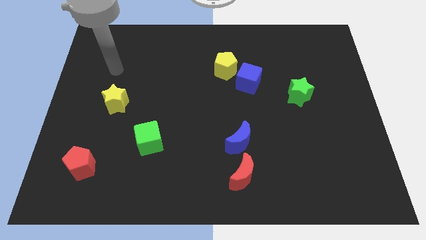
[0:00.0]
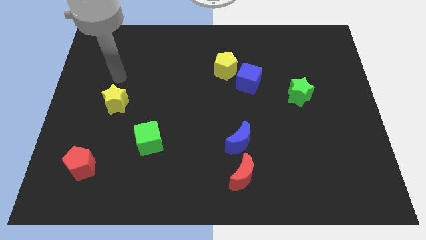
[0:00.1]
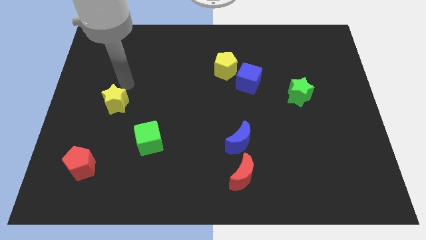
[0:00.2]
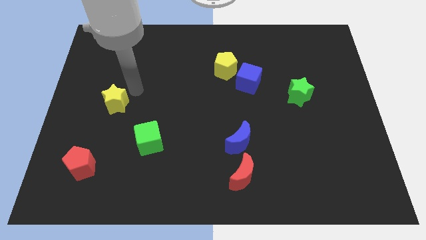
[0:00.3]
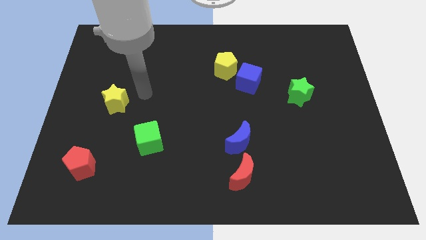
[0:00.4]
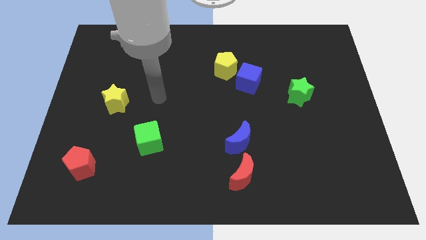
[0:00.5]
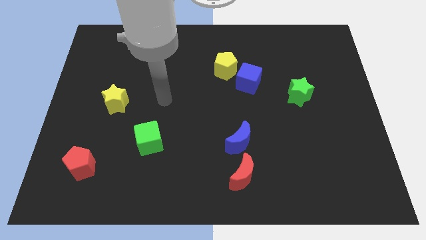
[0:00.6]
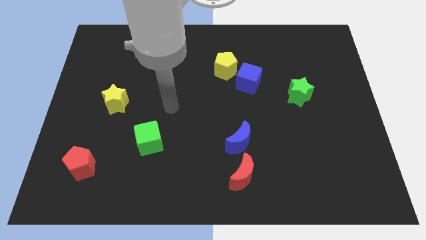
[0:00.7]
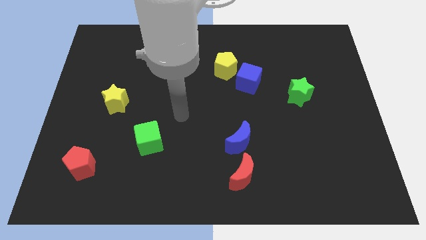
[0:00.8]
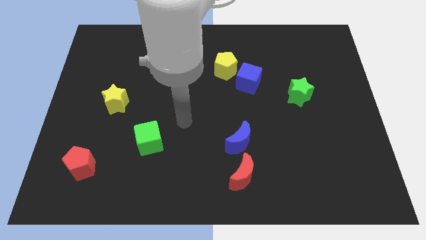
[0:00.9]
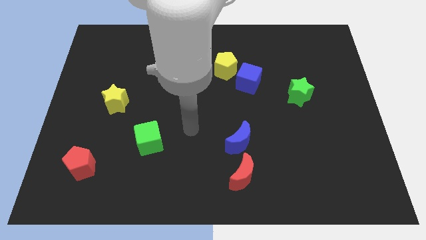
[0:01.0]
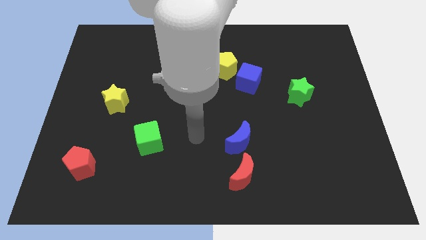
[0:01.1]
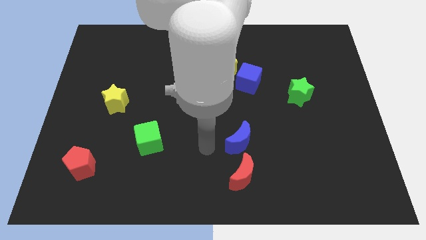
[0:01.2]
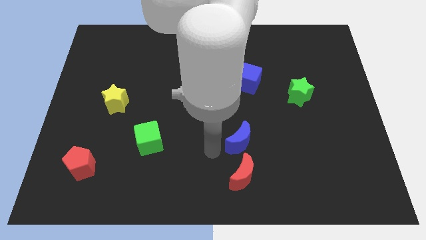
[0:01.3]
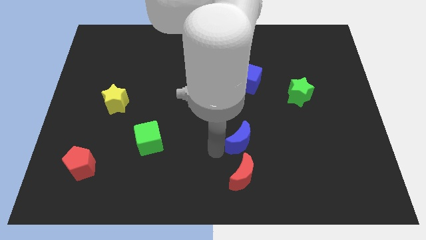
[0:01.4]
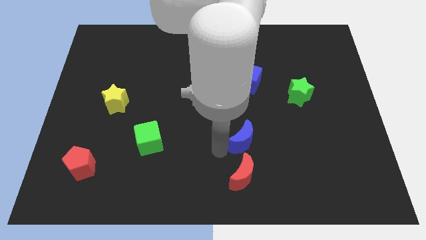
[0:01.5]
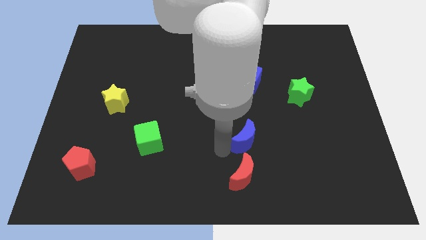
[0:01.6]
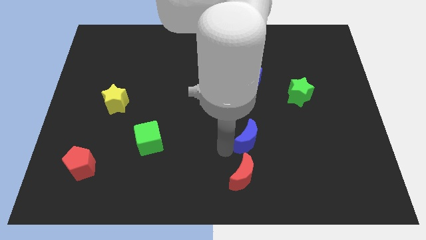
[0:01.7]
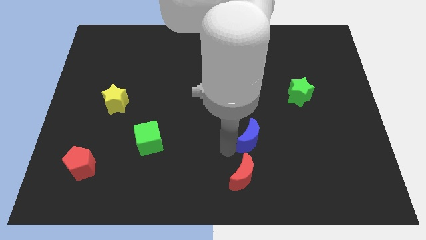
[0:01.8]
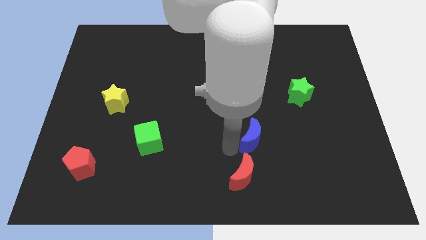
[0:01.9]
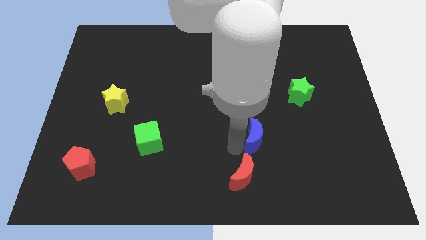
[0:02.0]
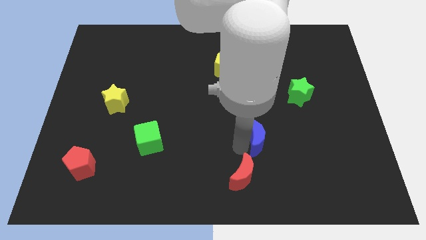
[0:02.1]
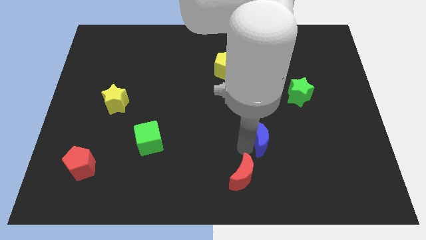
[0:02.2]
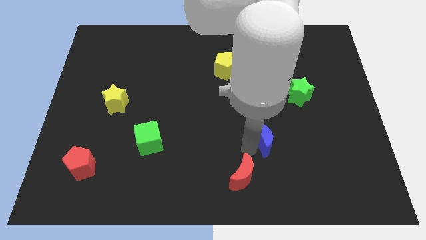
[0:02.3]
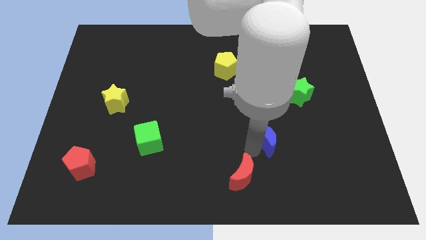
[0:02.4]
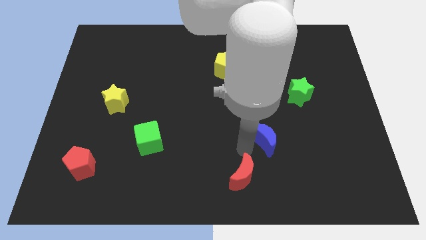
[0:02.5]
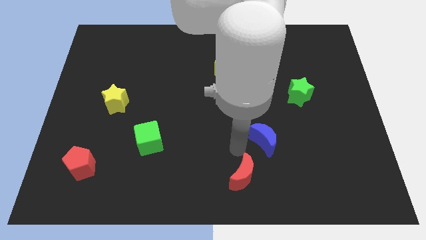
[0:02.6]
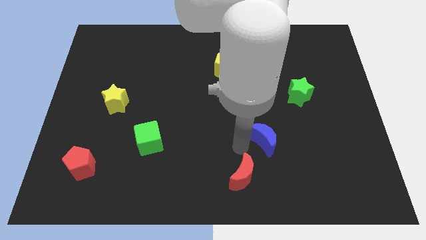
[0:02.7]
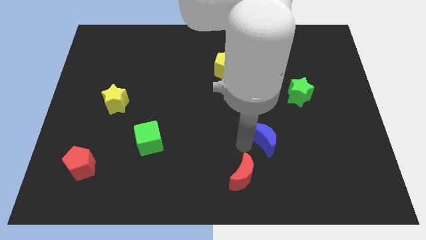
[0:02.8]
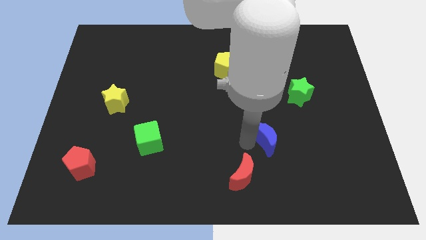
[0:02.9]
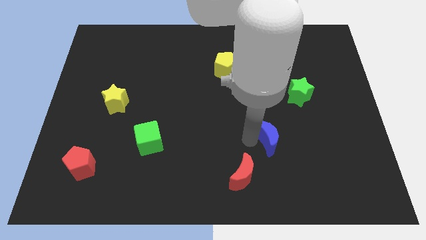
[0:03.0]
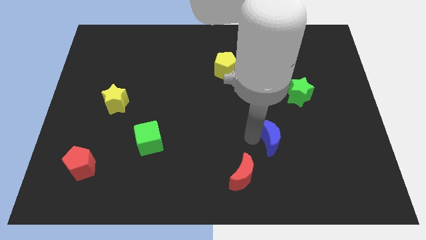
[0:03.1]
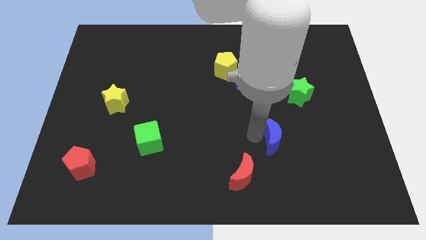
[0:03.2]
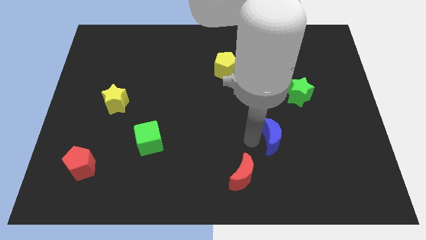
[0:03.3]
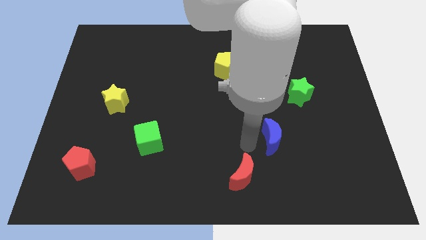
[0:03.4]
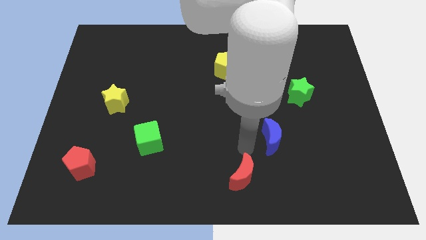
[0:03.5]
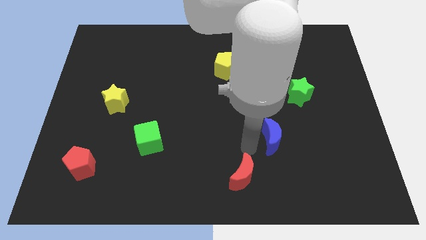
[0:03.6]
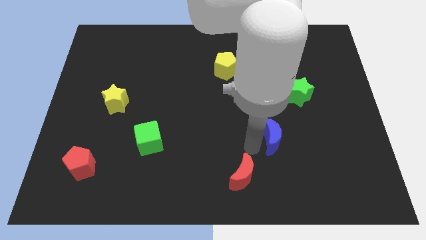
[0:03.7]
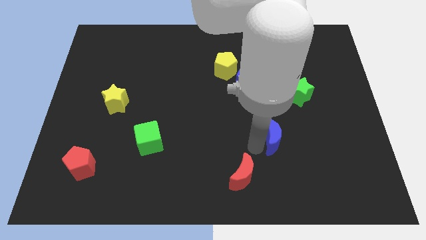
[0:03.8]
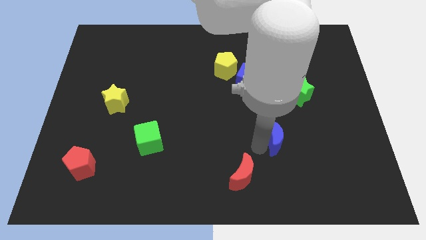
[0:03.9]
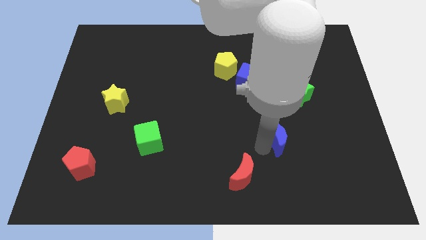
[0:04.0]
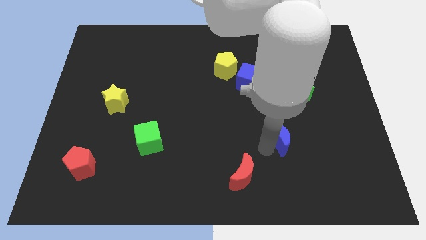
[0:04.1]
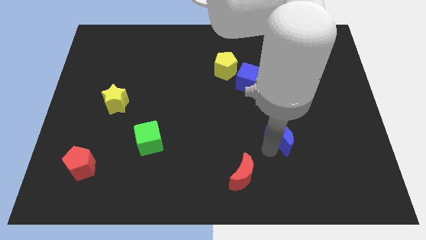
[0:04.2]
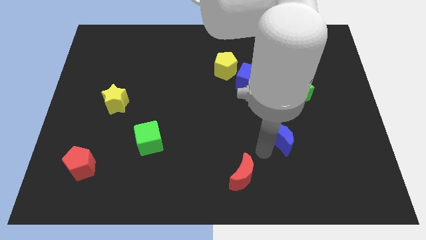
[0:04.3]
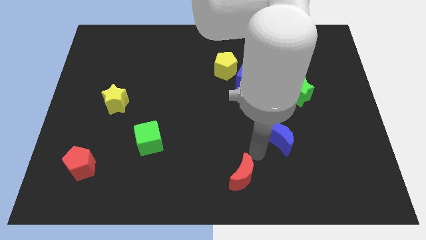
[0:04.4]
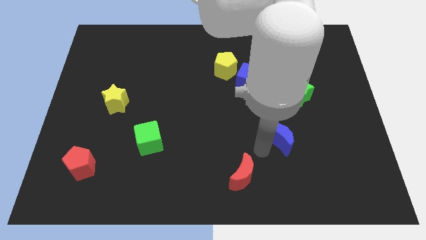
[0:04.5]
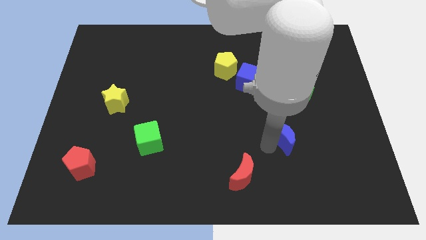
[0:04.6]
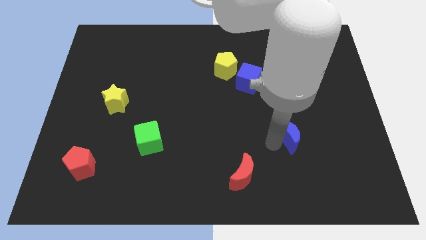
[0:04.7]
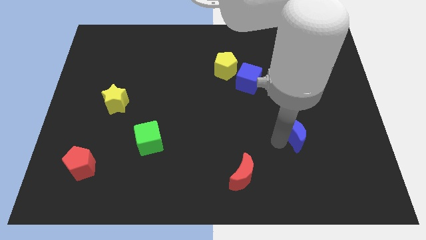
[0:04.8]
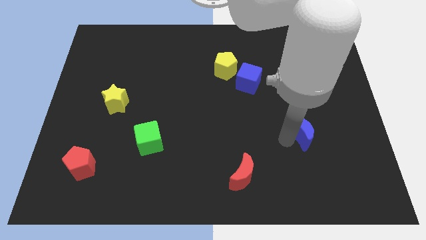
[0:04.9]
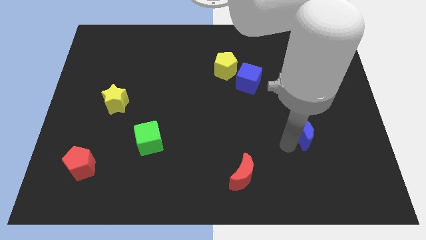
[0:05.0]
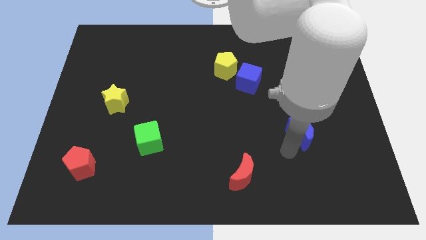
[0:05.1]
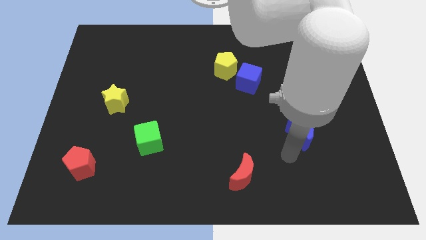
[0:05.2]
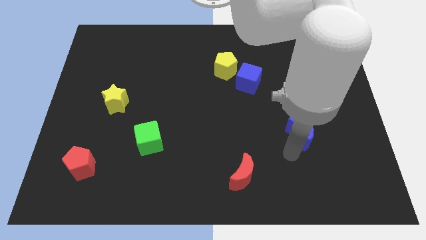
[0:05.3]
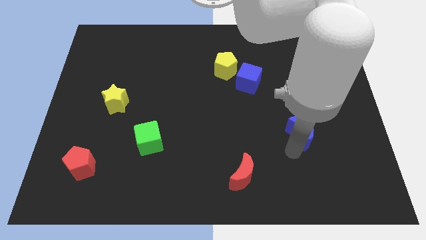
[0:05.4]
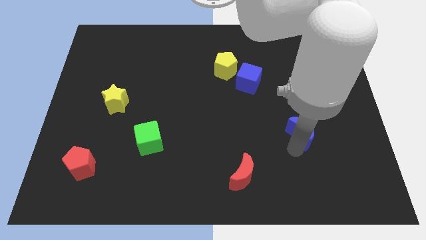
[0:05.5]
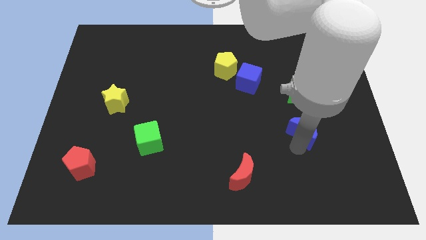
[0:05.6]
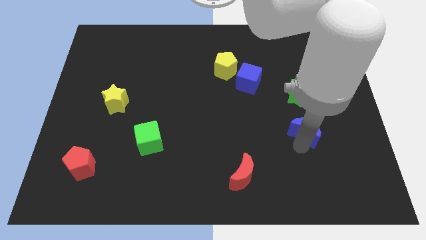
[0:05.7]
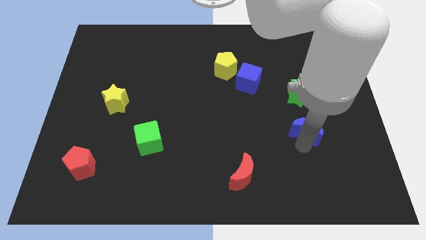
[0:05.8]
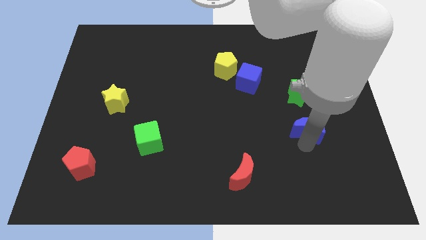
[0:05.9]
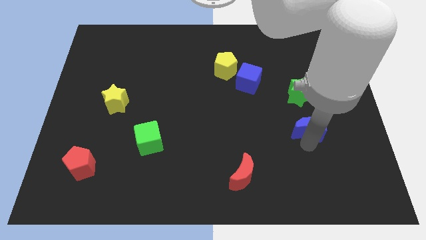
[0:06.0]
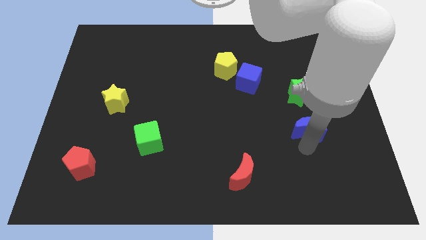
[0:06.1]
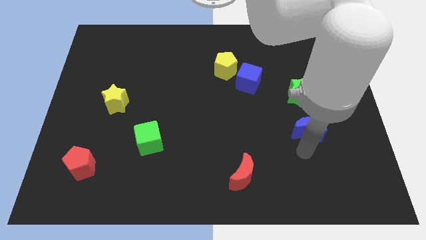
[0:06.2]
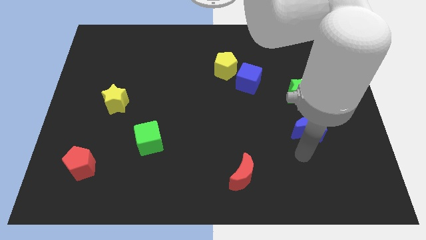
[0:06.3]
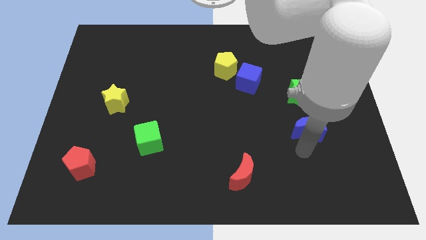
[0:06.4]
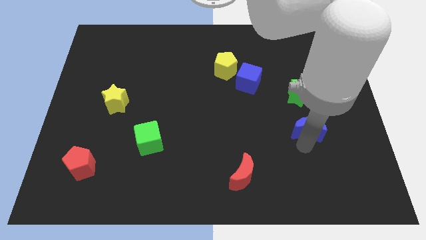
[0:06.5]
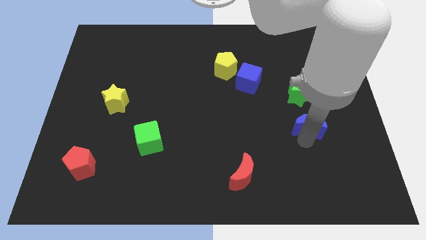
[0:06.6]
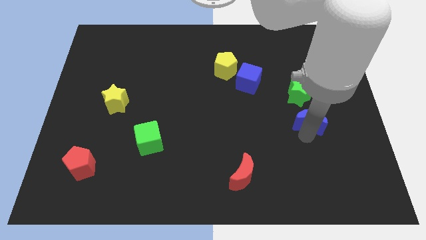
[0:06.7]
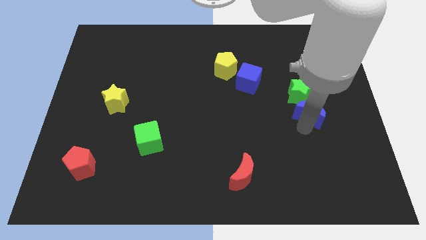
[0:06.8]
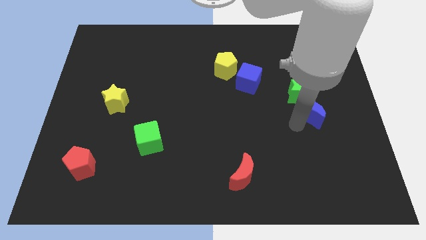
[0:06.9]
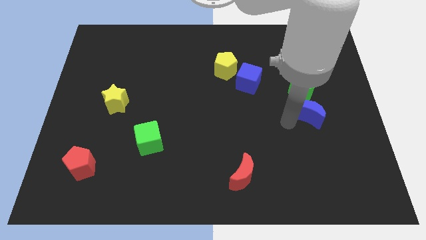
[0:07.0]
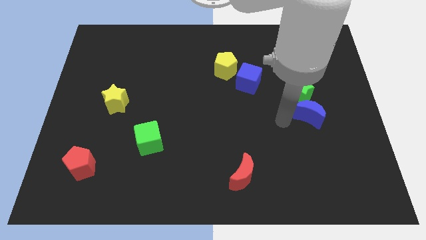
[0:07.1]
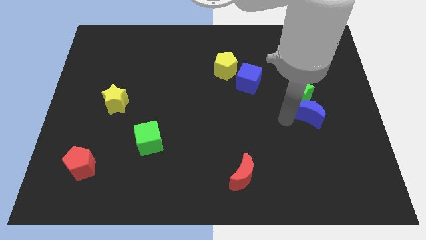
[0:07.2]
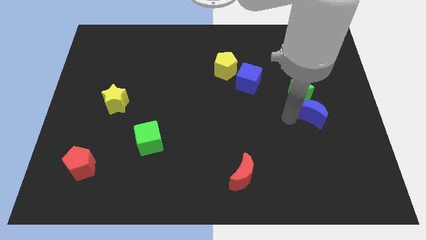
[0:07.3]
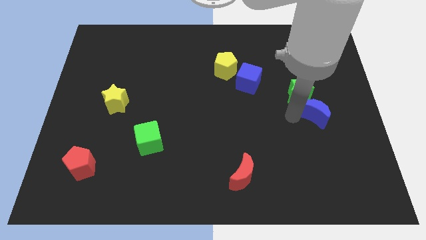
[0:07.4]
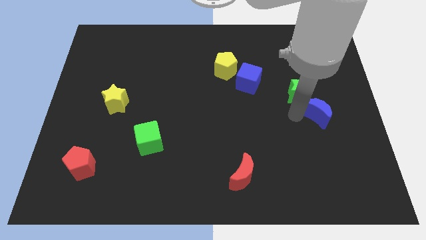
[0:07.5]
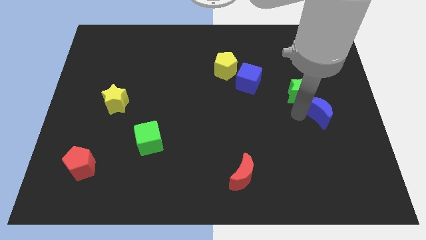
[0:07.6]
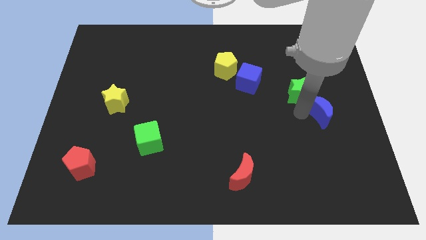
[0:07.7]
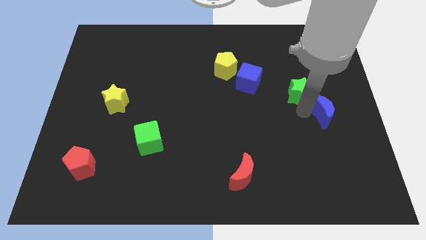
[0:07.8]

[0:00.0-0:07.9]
put the blue moon to the center right
